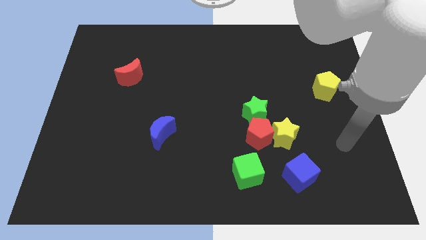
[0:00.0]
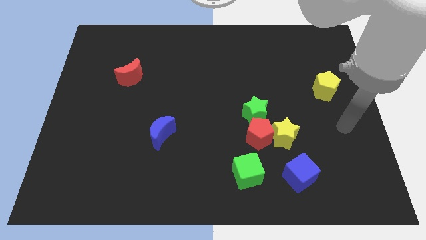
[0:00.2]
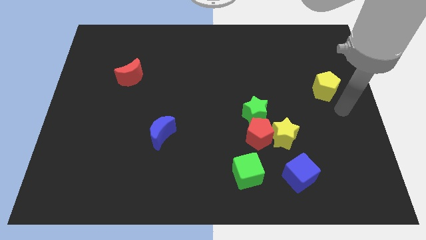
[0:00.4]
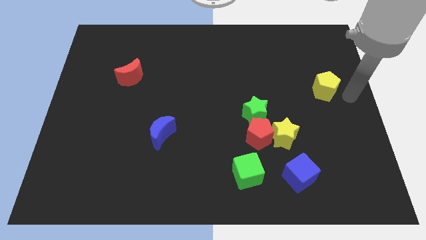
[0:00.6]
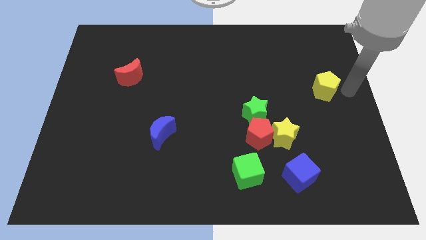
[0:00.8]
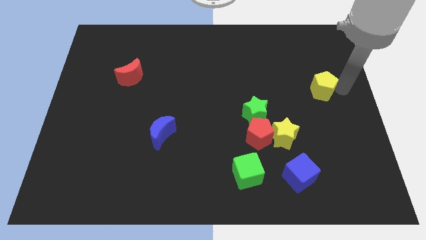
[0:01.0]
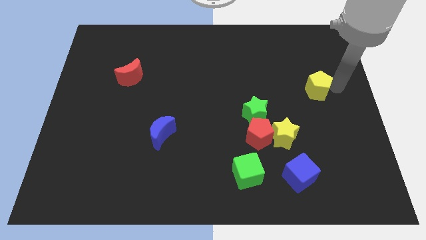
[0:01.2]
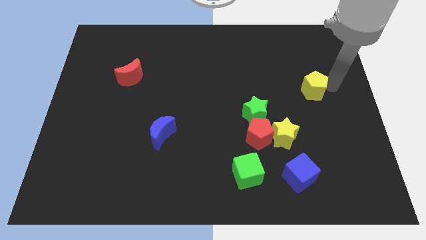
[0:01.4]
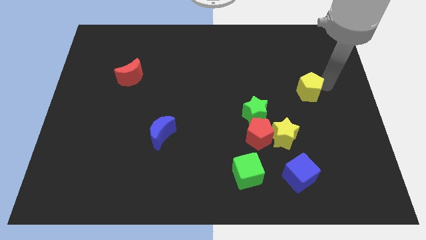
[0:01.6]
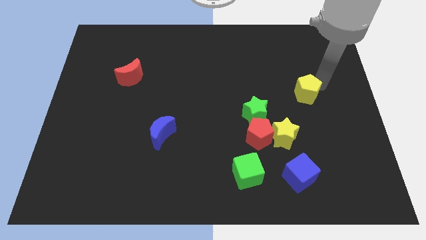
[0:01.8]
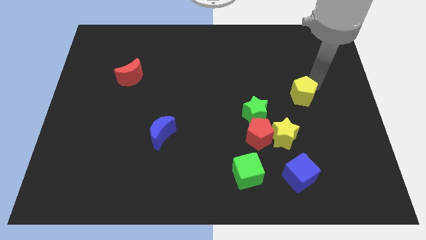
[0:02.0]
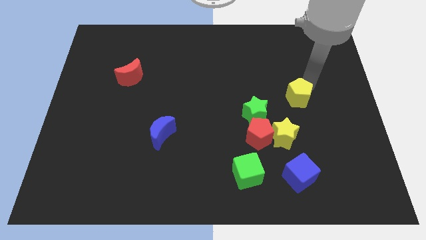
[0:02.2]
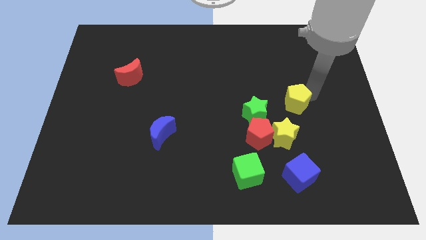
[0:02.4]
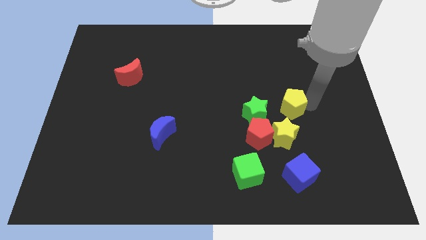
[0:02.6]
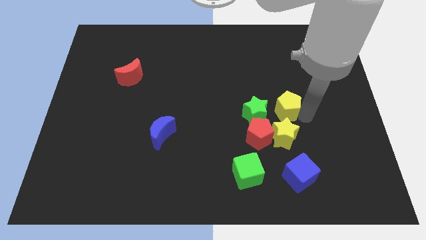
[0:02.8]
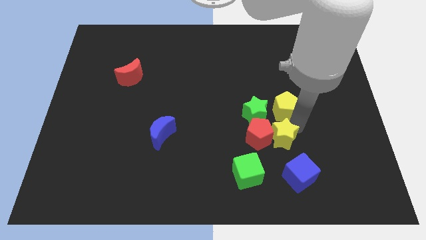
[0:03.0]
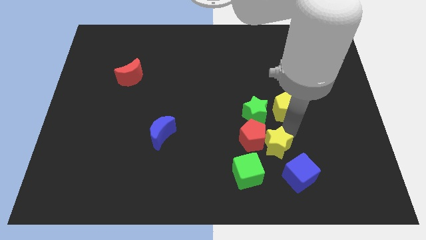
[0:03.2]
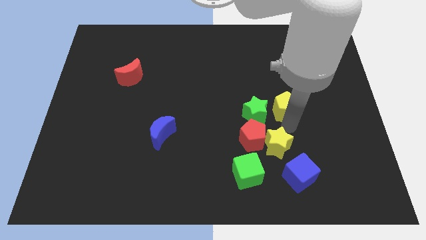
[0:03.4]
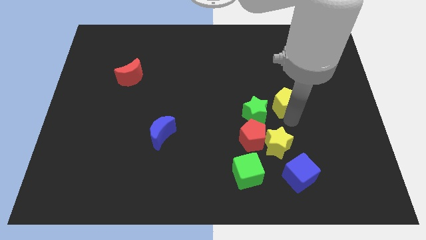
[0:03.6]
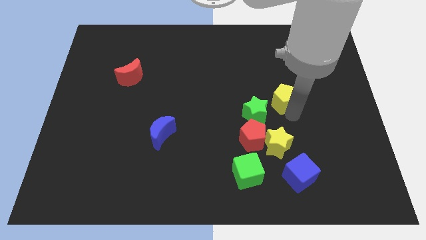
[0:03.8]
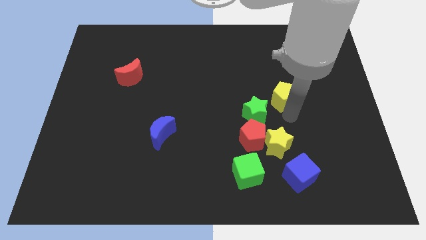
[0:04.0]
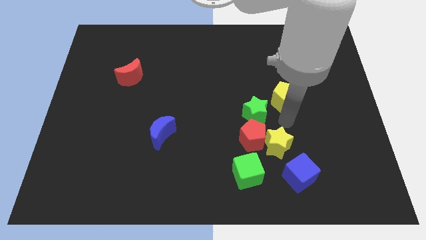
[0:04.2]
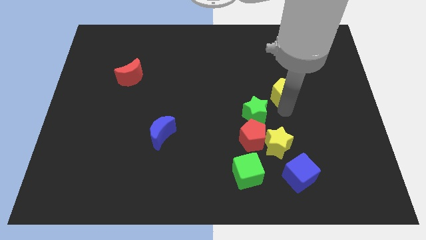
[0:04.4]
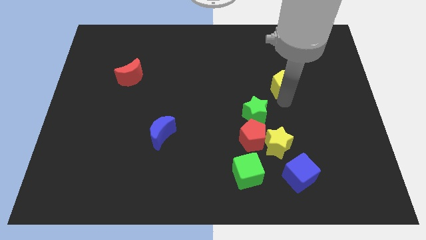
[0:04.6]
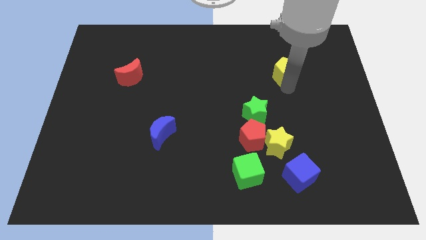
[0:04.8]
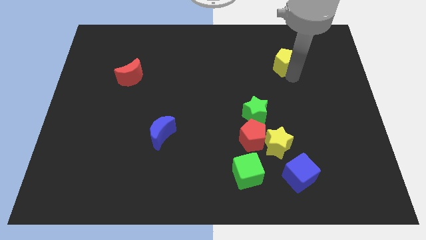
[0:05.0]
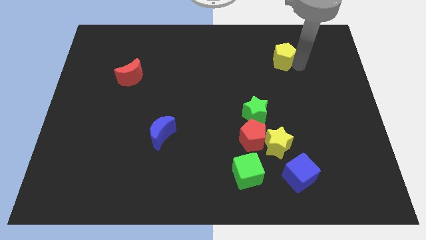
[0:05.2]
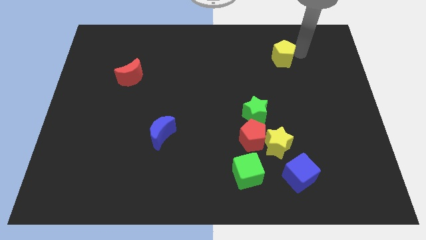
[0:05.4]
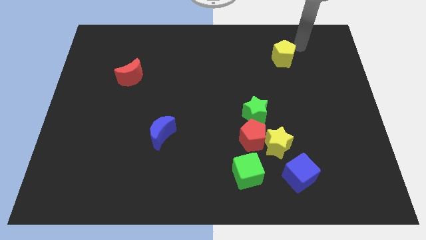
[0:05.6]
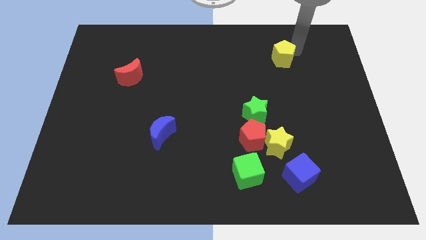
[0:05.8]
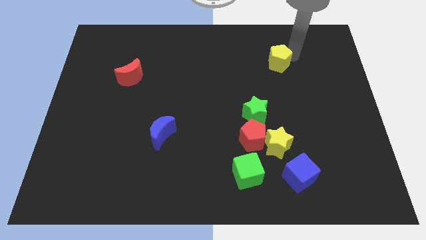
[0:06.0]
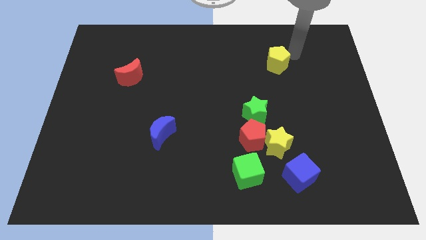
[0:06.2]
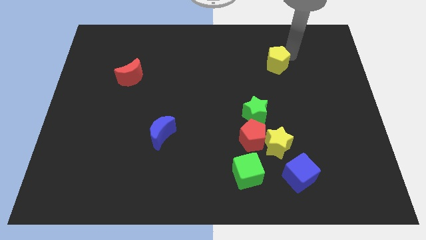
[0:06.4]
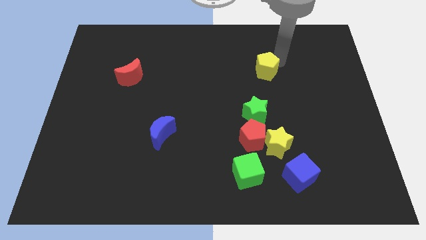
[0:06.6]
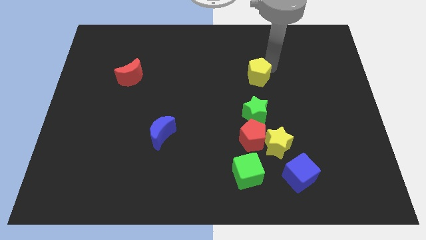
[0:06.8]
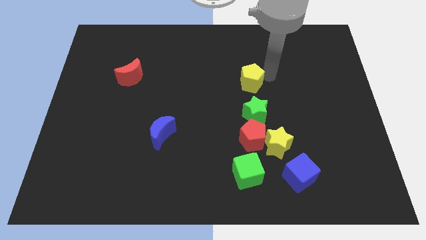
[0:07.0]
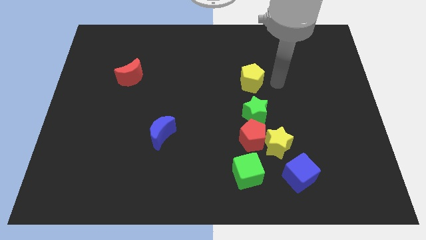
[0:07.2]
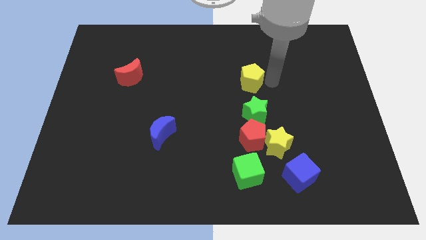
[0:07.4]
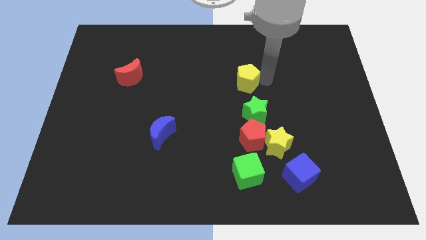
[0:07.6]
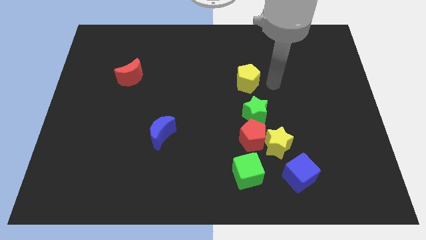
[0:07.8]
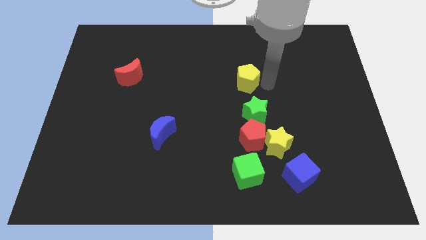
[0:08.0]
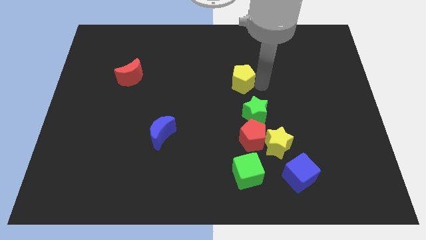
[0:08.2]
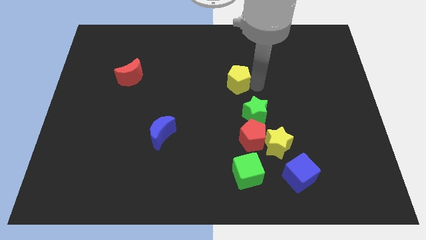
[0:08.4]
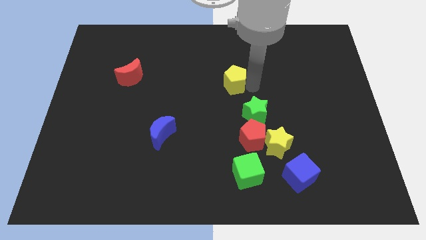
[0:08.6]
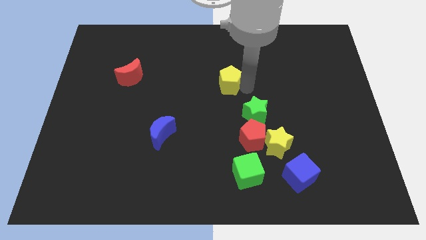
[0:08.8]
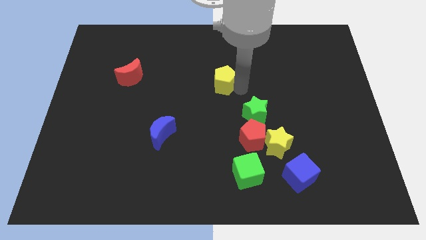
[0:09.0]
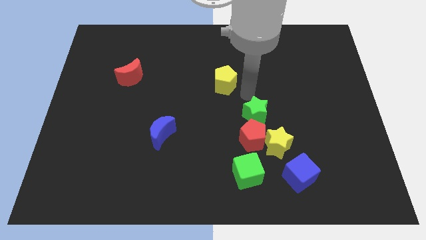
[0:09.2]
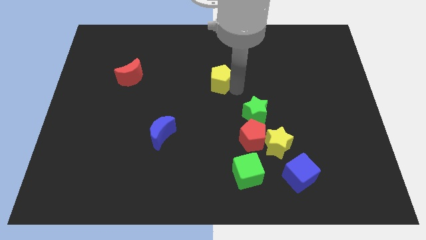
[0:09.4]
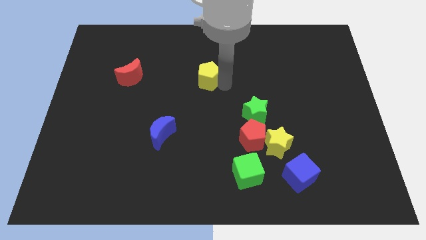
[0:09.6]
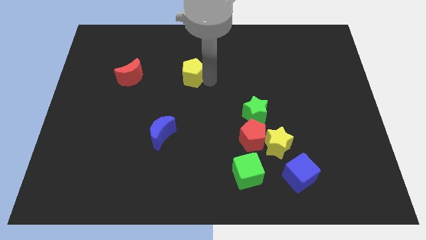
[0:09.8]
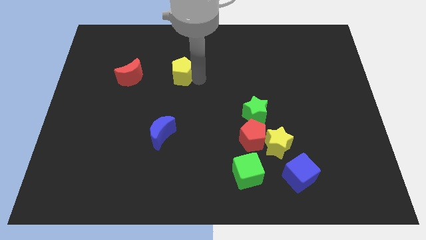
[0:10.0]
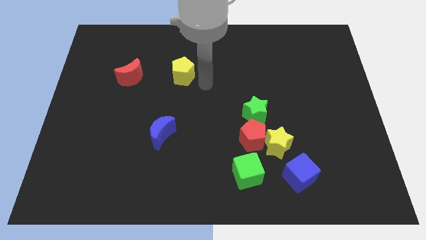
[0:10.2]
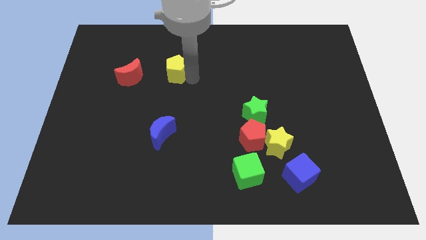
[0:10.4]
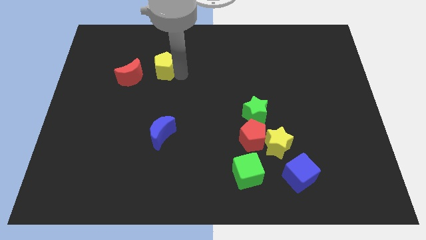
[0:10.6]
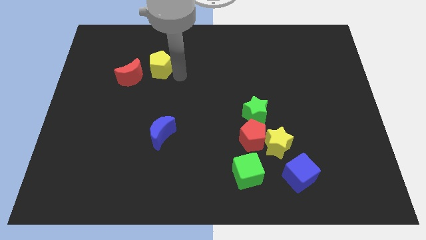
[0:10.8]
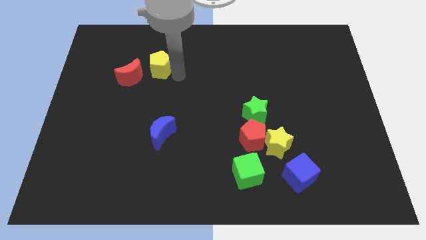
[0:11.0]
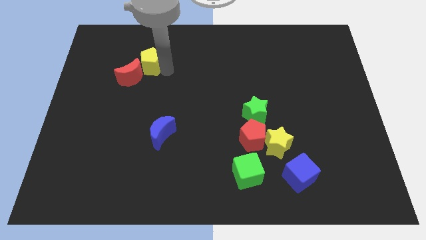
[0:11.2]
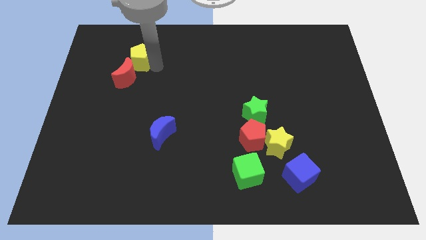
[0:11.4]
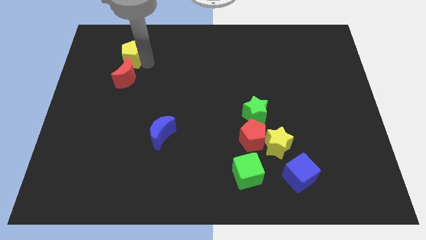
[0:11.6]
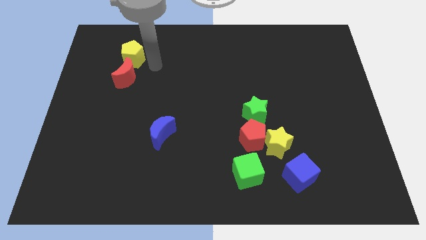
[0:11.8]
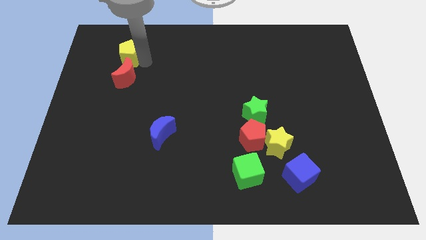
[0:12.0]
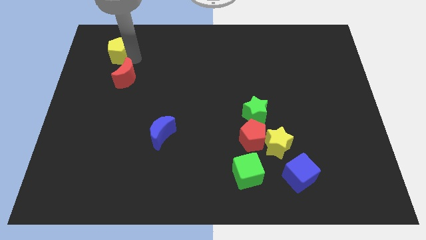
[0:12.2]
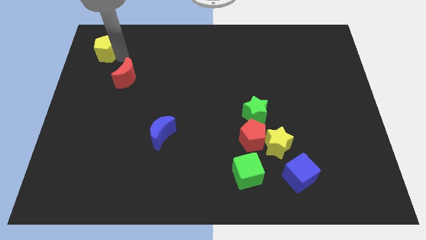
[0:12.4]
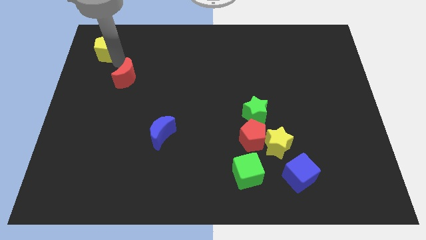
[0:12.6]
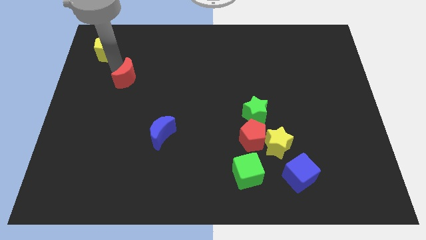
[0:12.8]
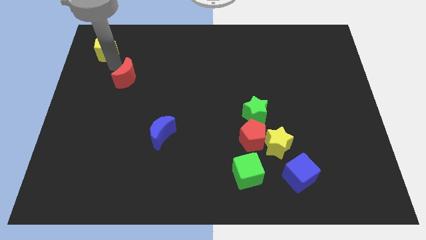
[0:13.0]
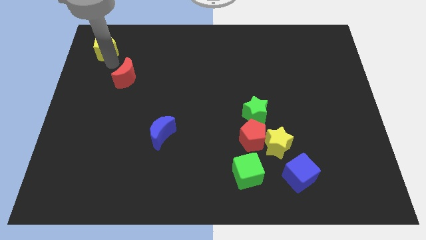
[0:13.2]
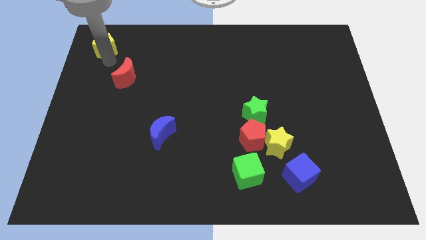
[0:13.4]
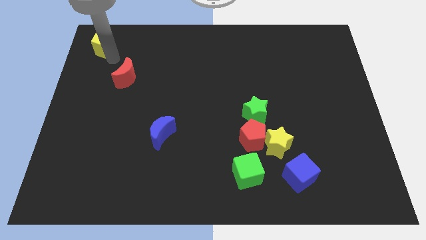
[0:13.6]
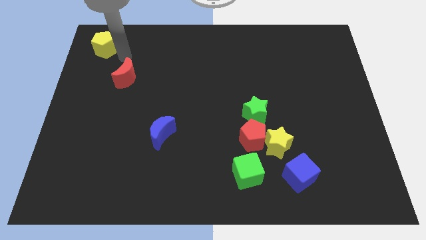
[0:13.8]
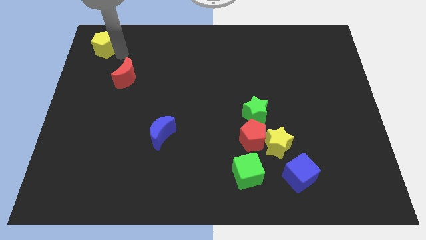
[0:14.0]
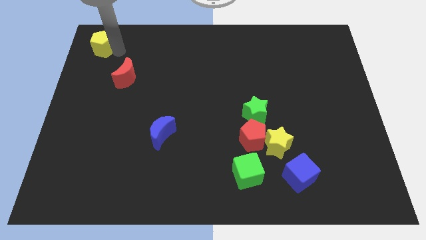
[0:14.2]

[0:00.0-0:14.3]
move the yellow pentagon to the upper left corner
